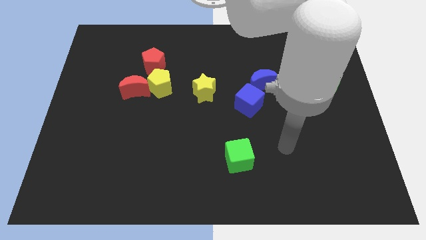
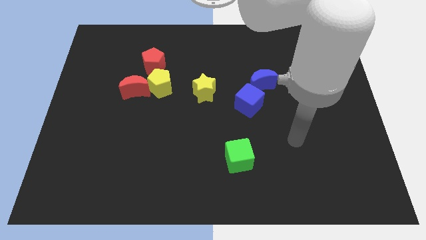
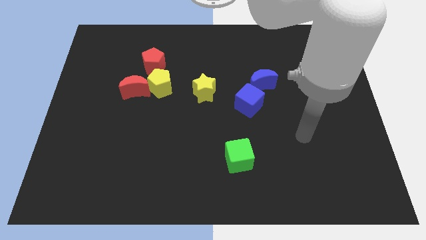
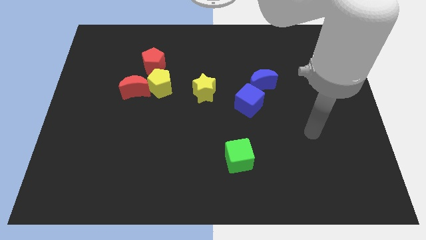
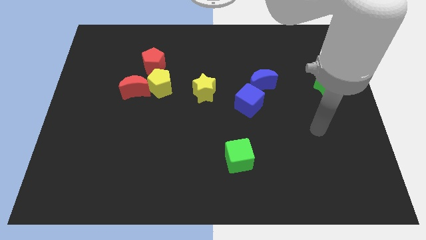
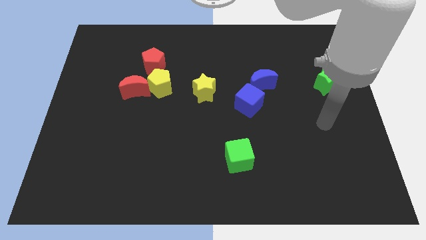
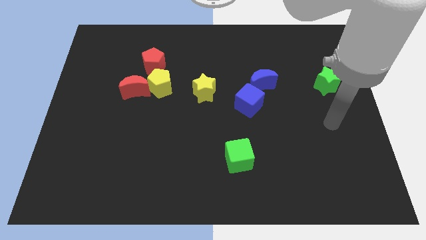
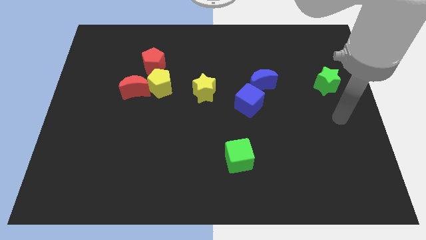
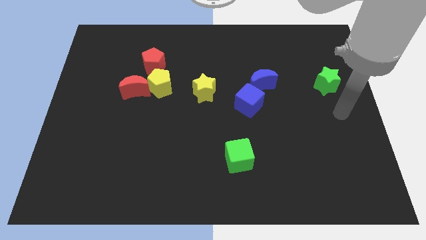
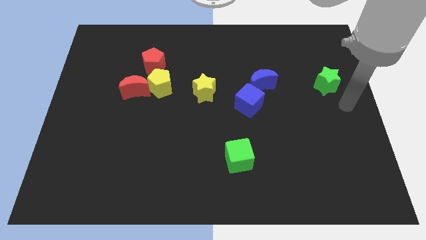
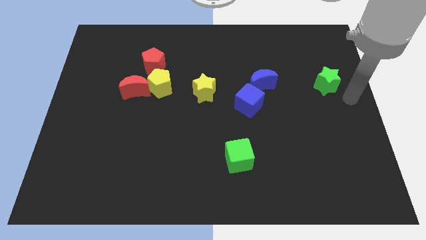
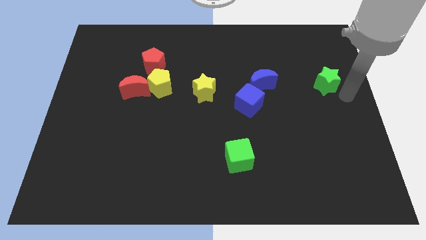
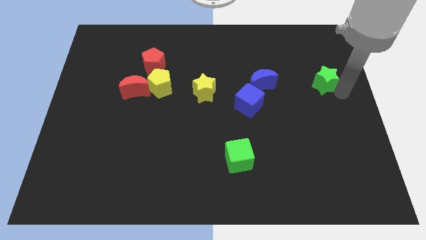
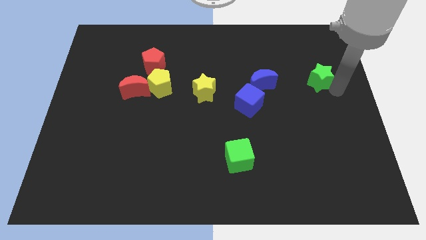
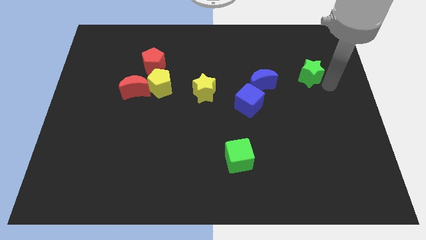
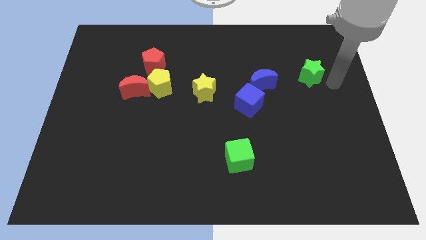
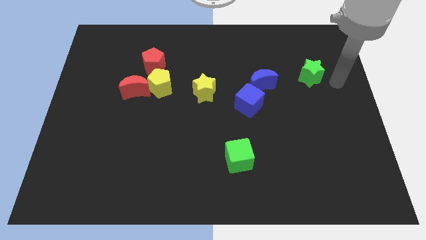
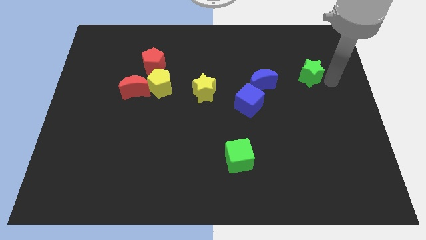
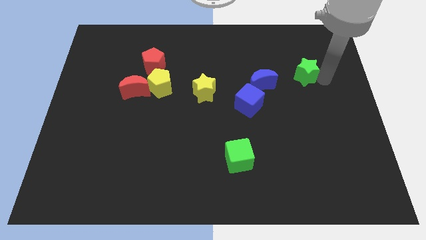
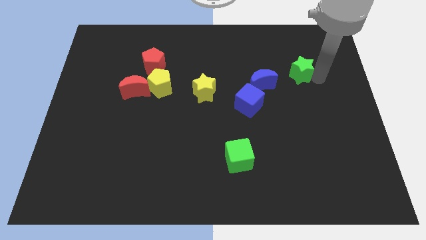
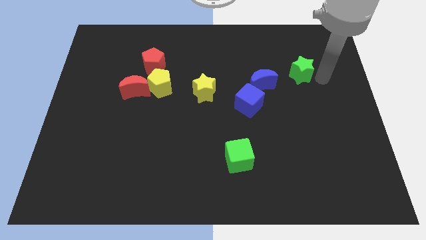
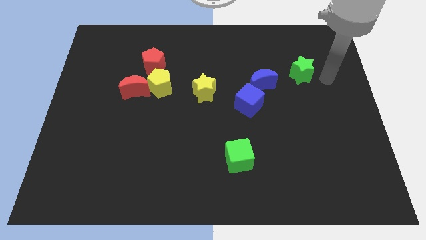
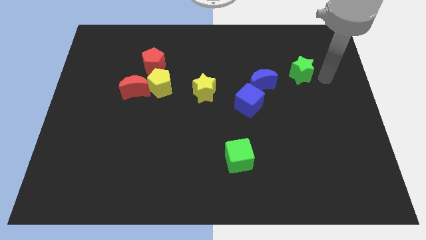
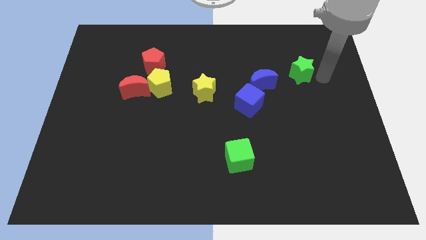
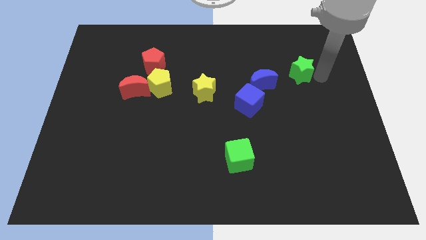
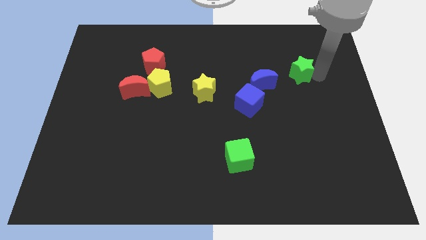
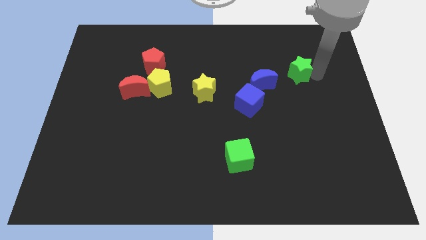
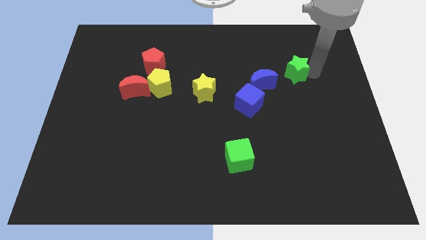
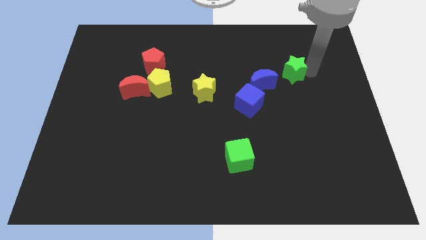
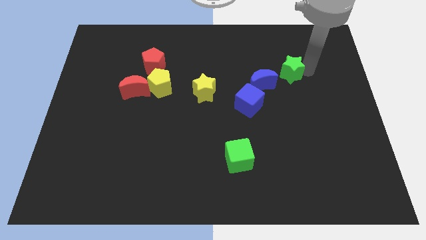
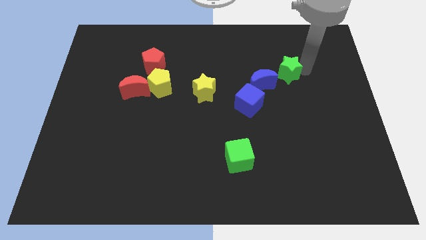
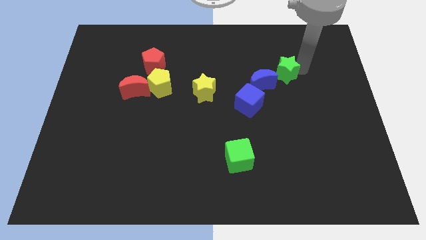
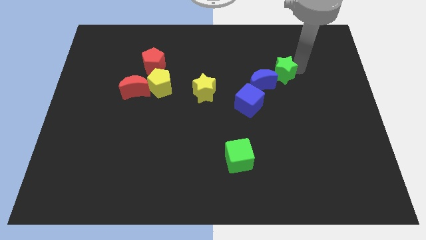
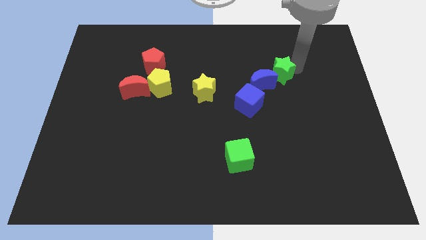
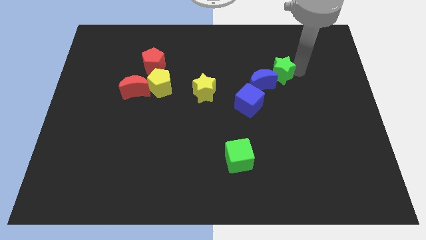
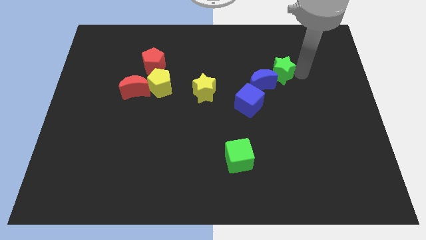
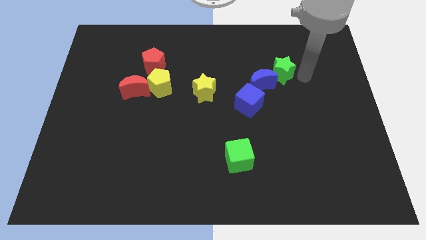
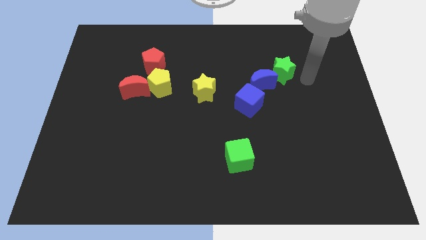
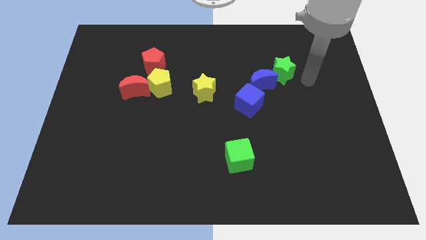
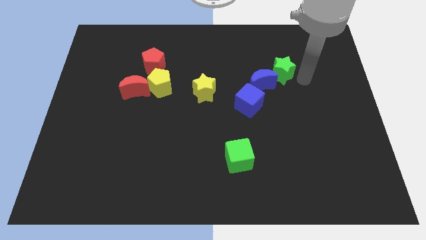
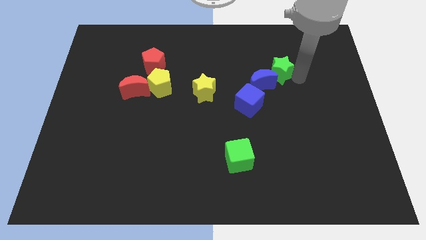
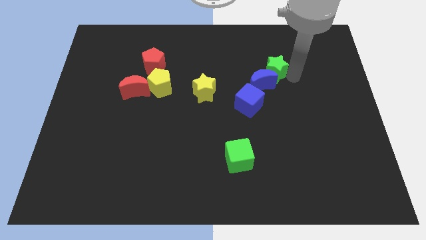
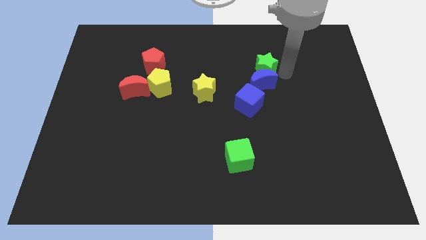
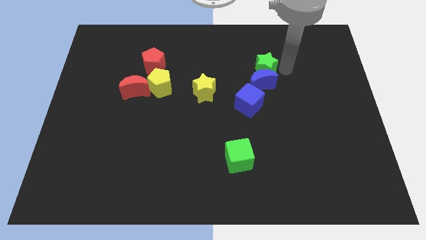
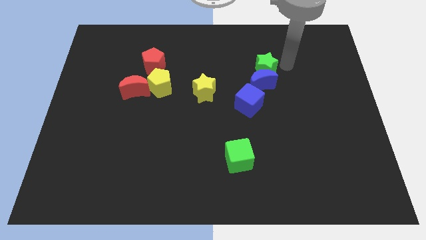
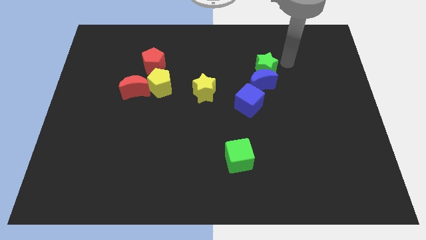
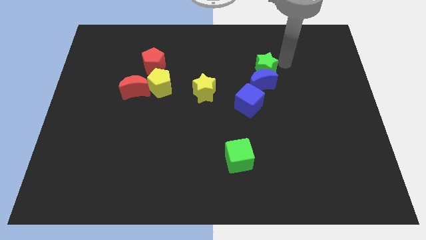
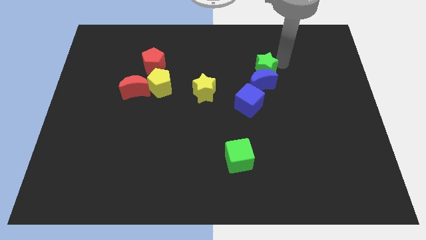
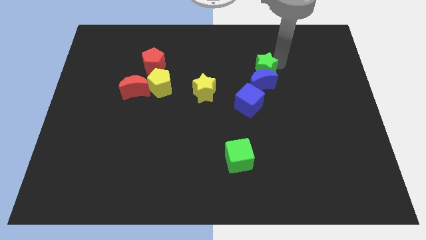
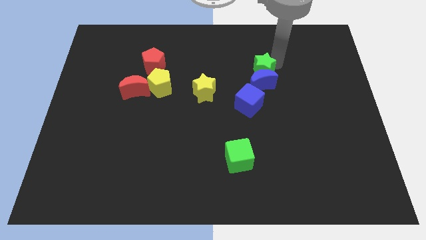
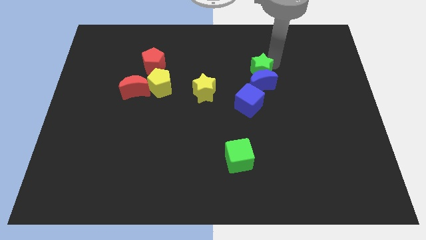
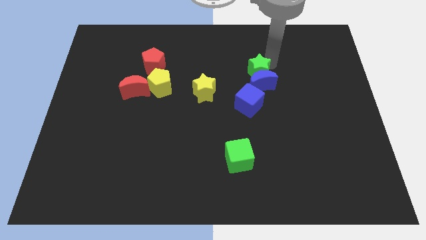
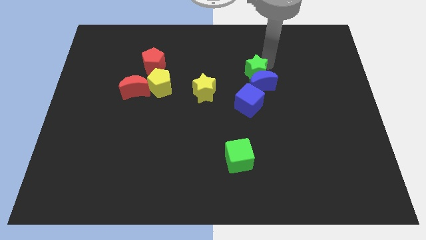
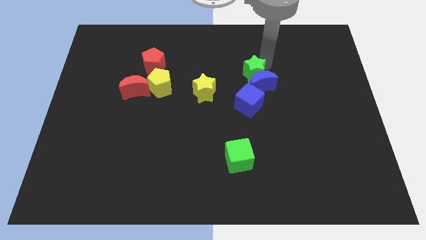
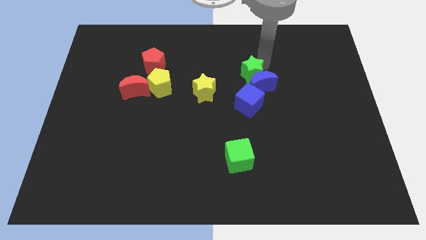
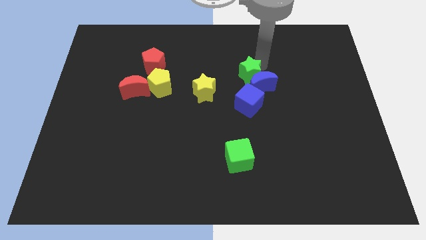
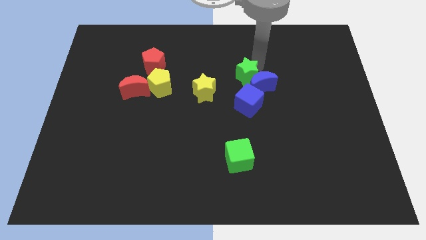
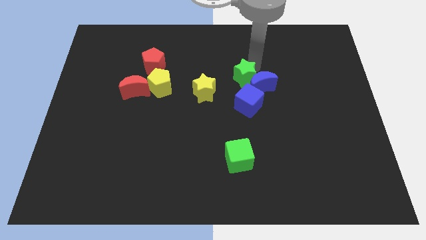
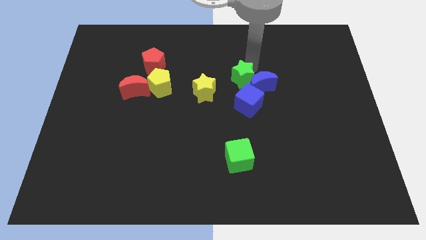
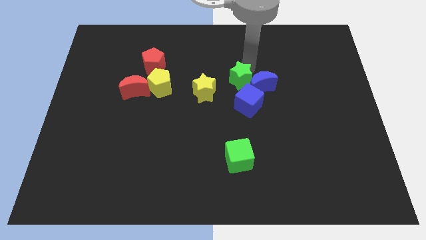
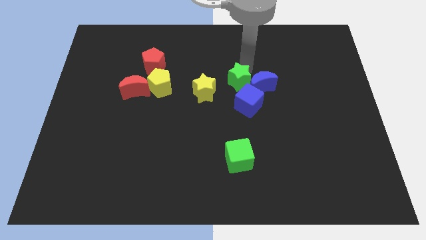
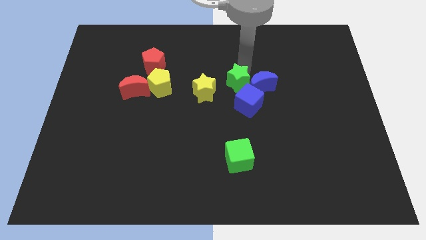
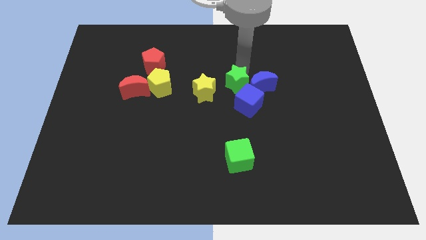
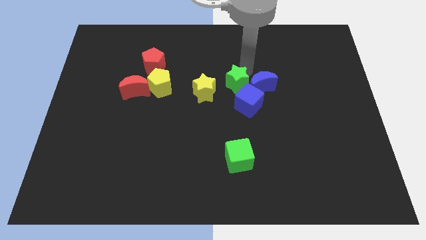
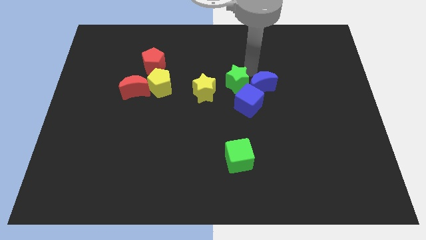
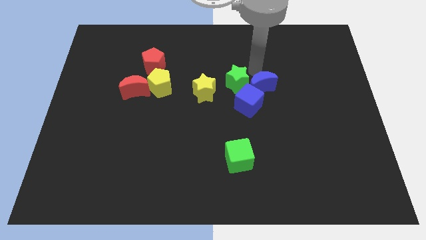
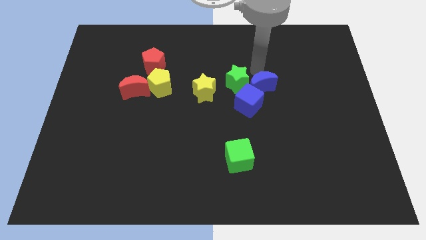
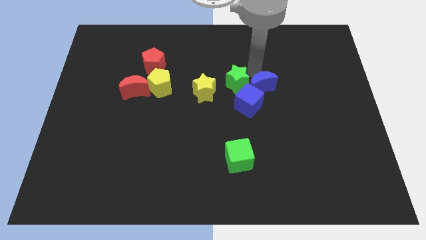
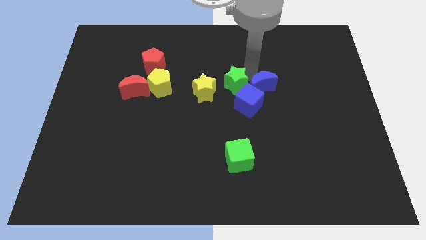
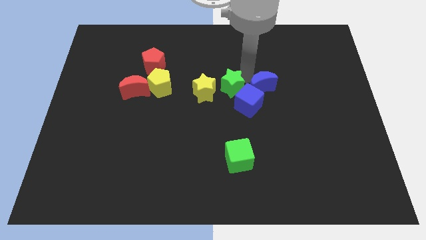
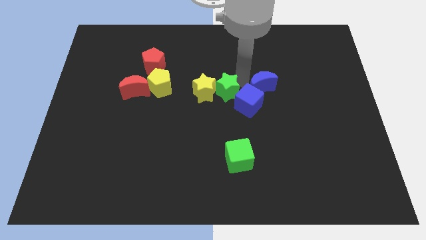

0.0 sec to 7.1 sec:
push the green star towards the yellow star
